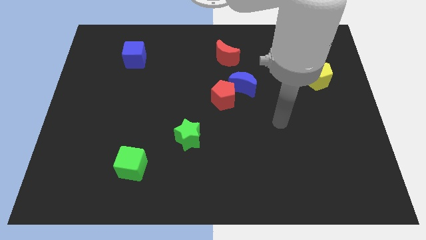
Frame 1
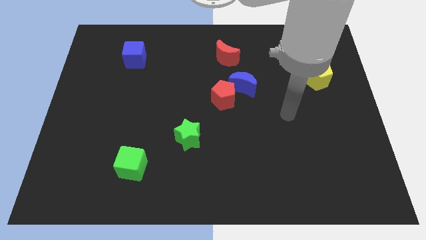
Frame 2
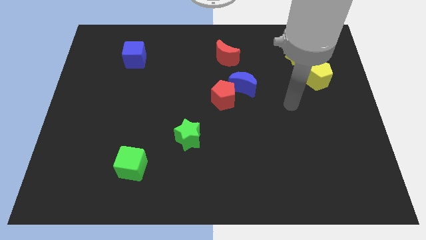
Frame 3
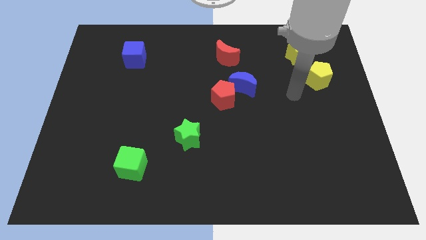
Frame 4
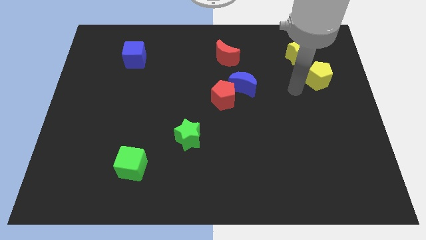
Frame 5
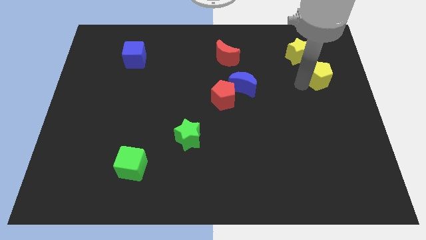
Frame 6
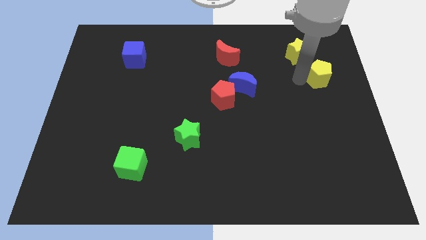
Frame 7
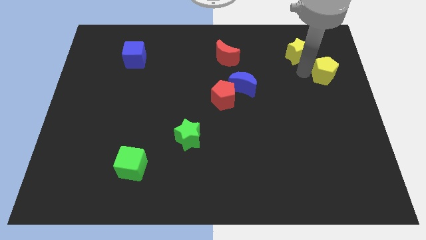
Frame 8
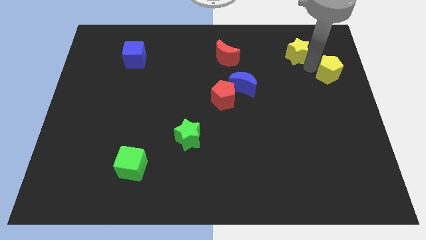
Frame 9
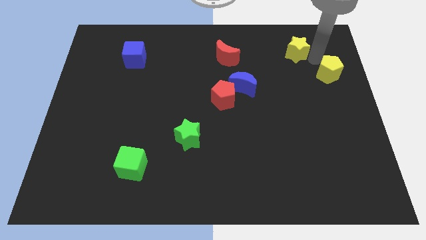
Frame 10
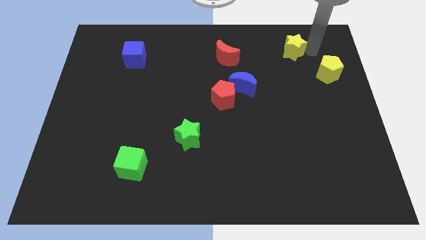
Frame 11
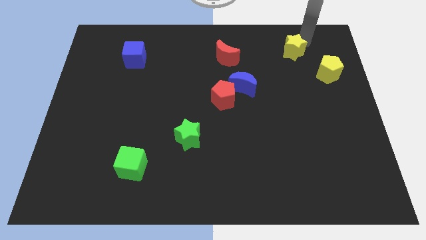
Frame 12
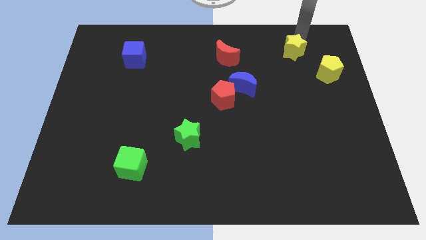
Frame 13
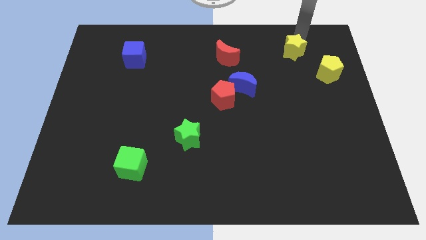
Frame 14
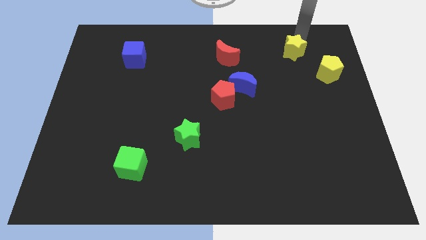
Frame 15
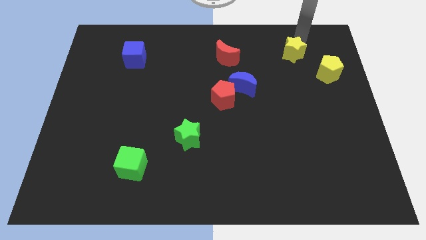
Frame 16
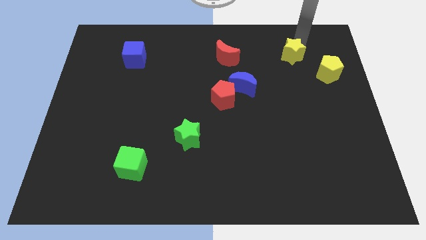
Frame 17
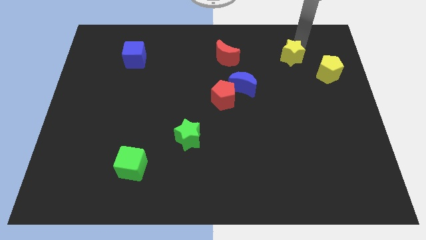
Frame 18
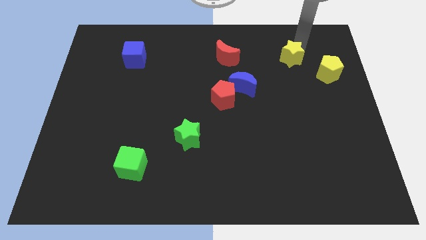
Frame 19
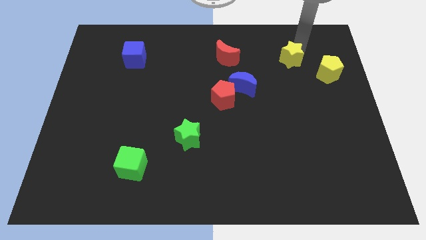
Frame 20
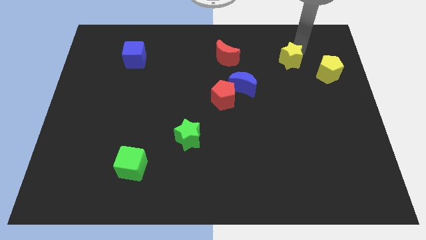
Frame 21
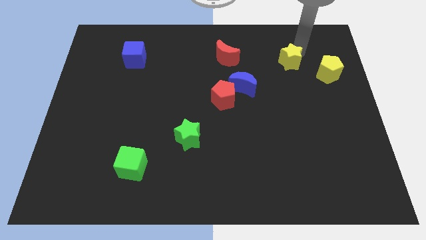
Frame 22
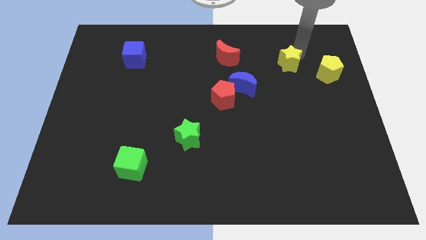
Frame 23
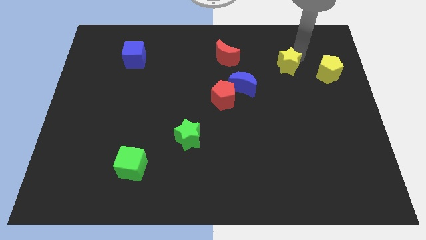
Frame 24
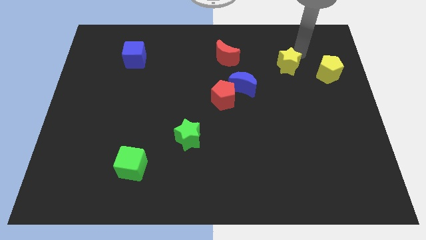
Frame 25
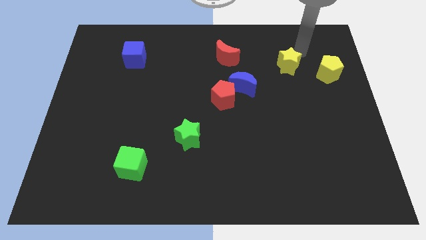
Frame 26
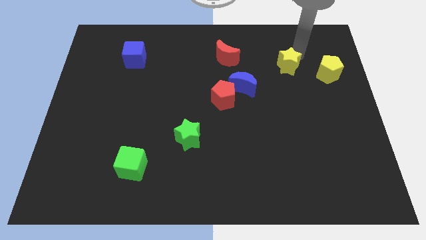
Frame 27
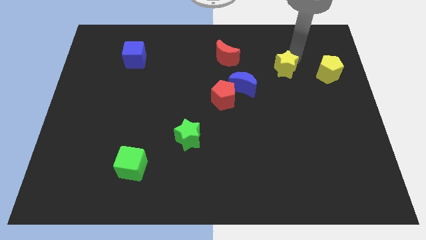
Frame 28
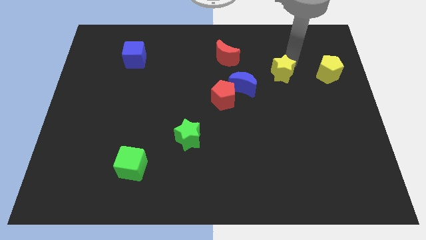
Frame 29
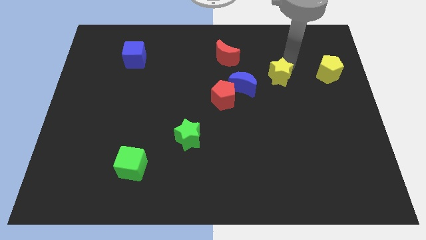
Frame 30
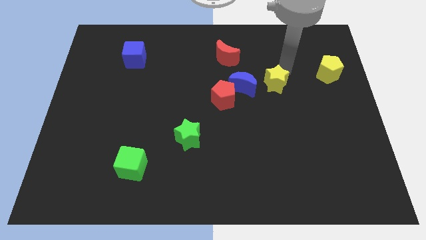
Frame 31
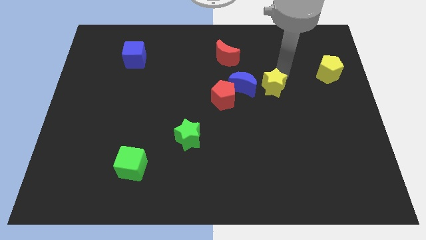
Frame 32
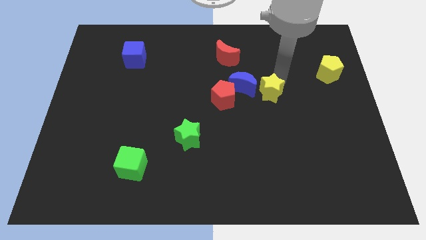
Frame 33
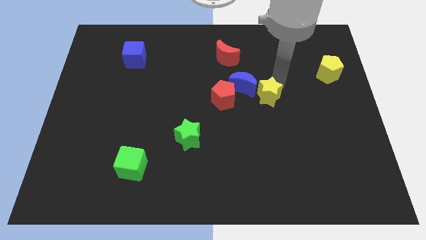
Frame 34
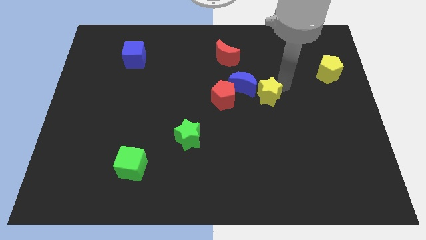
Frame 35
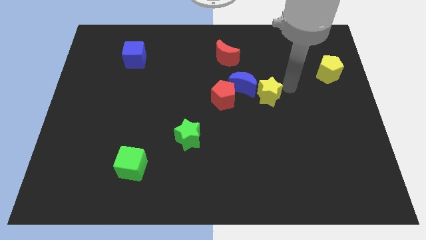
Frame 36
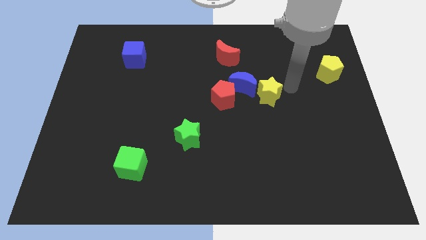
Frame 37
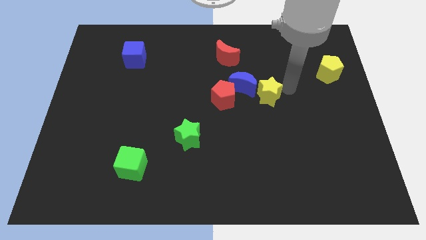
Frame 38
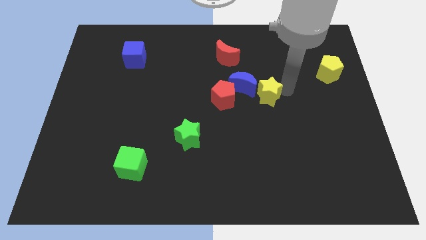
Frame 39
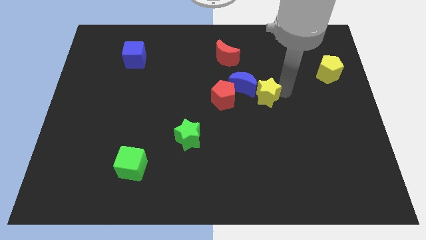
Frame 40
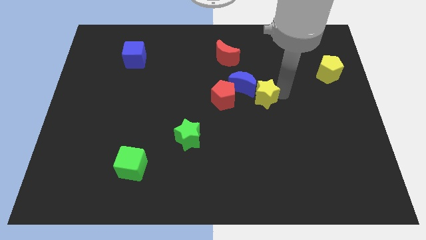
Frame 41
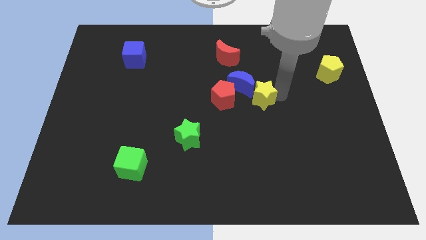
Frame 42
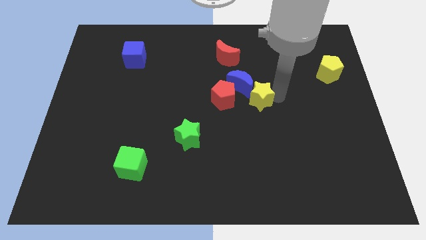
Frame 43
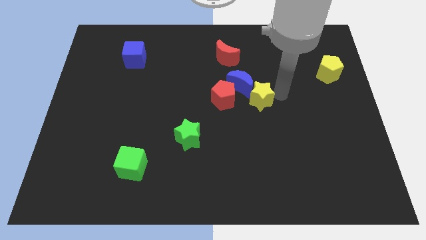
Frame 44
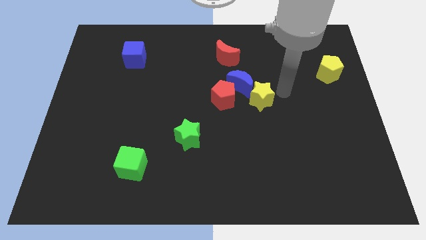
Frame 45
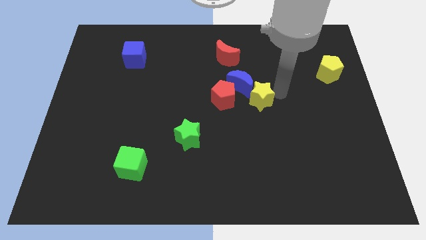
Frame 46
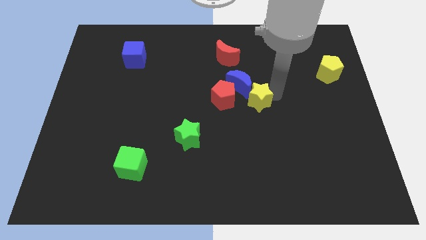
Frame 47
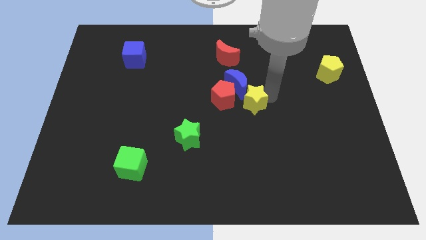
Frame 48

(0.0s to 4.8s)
push the yellow star diagonally downwards and to the left

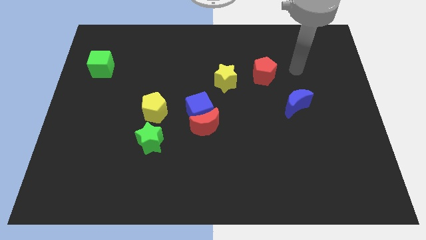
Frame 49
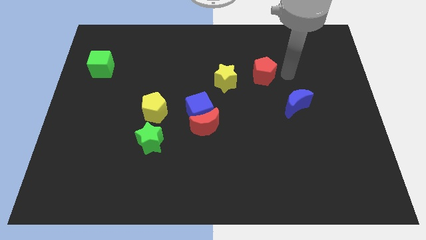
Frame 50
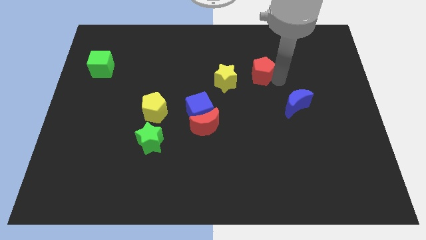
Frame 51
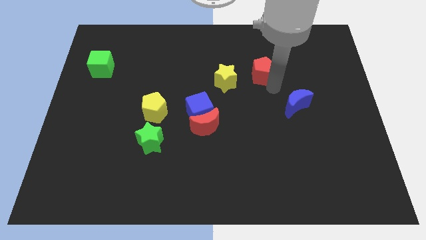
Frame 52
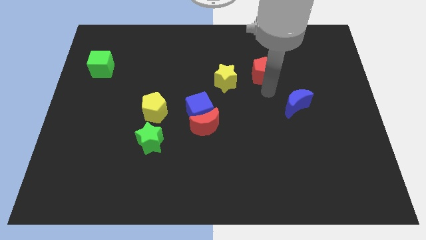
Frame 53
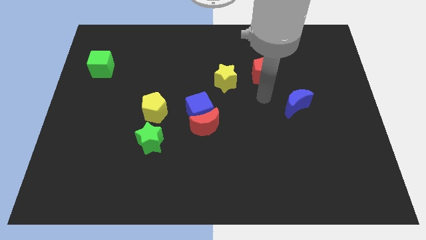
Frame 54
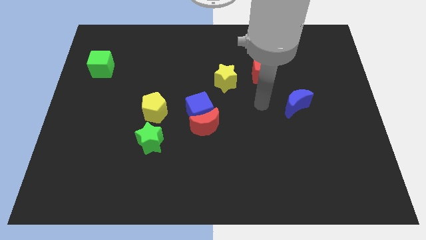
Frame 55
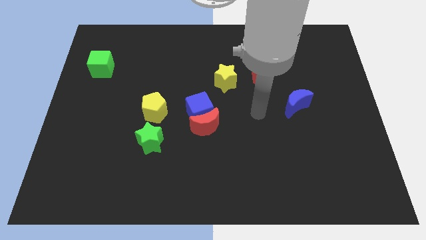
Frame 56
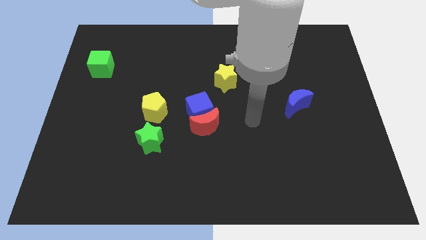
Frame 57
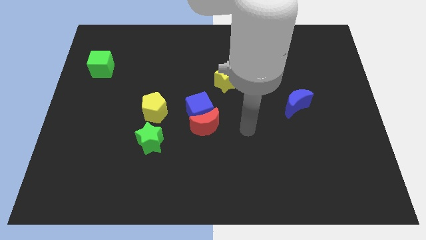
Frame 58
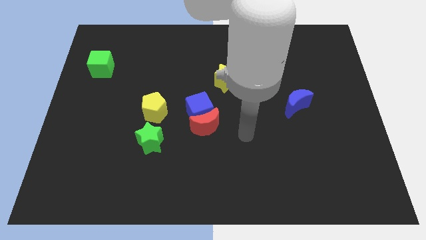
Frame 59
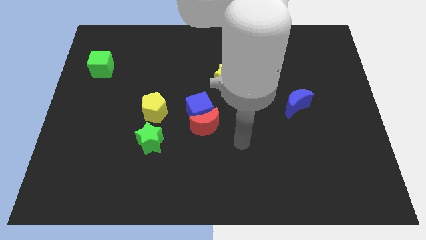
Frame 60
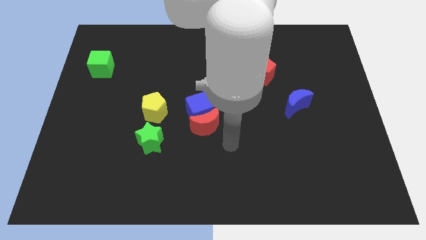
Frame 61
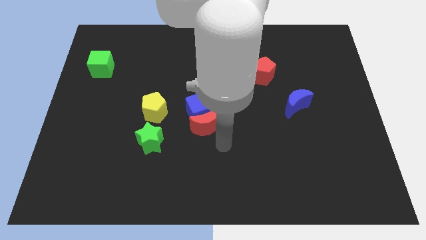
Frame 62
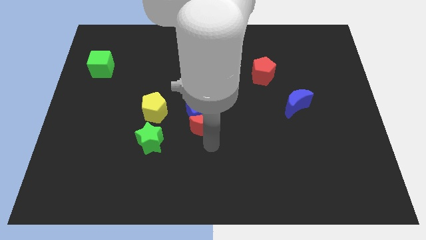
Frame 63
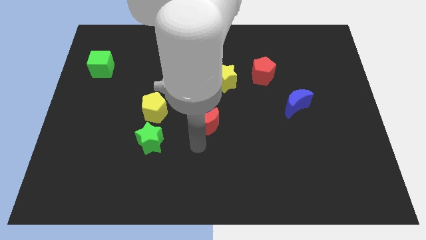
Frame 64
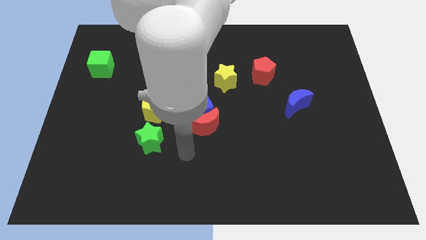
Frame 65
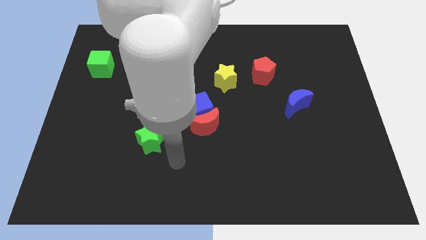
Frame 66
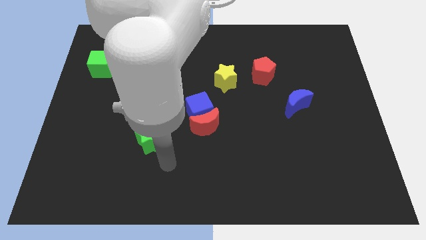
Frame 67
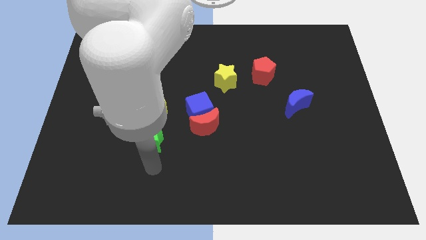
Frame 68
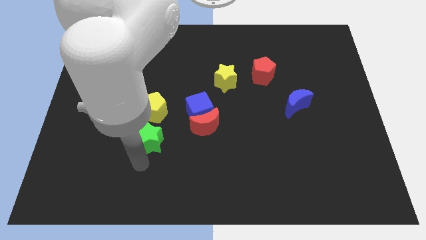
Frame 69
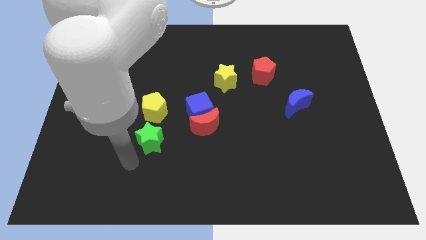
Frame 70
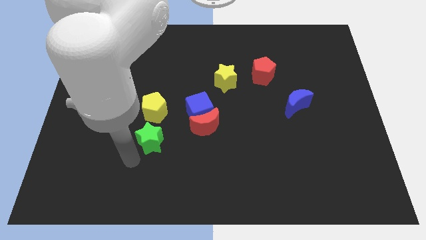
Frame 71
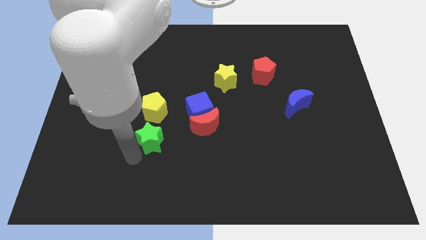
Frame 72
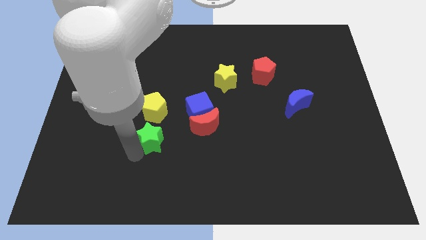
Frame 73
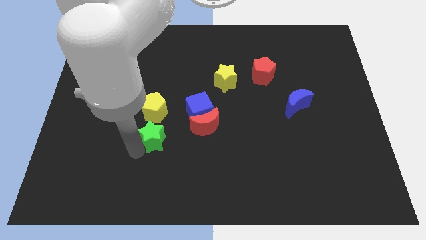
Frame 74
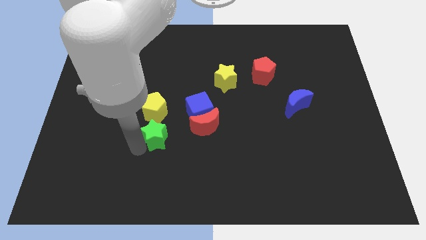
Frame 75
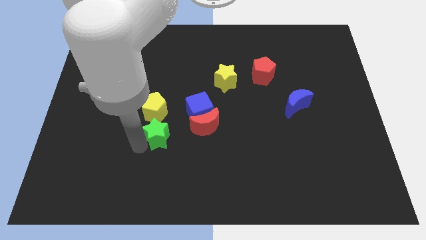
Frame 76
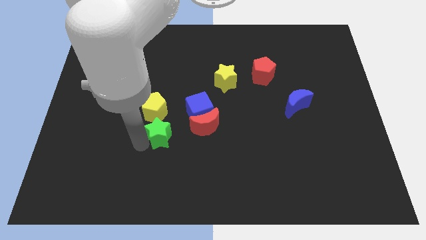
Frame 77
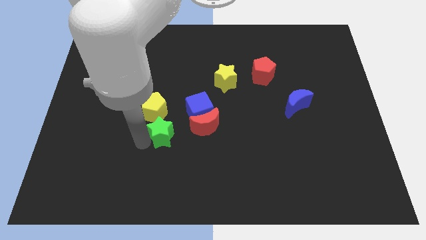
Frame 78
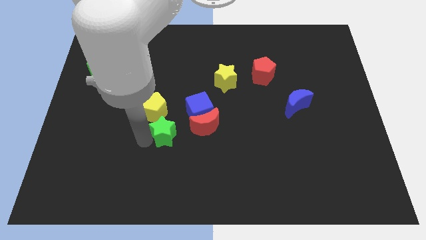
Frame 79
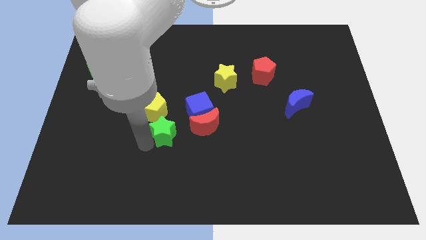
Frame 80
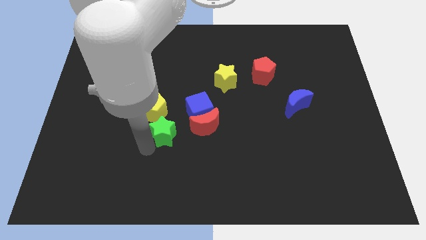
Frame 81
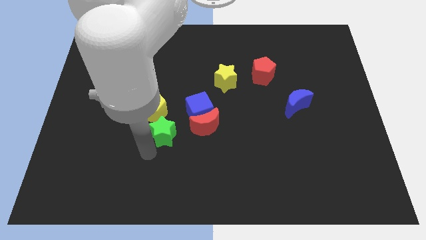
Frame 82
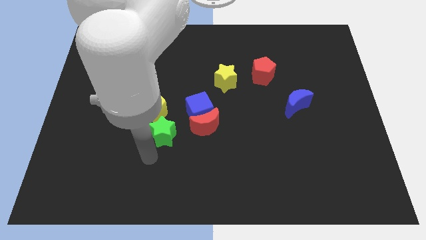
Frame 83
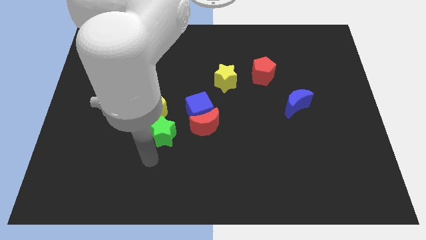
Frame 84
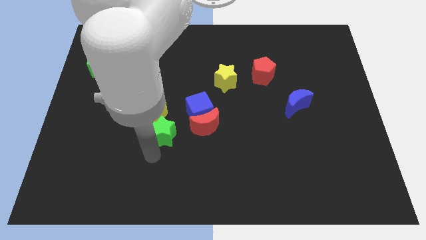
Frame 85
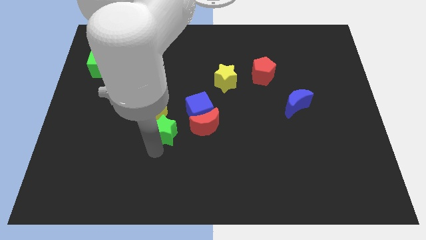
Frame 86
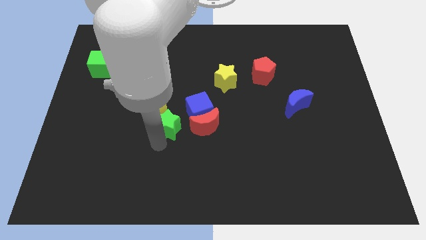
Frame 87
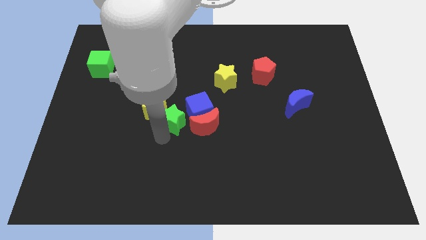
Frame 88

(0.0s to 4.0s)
move the green star slightly upwards and then to the right
